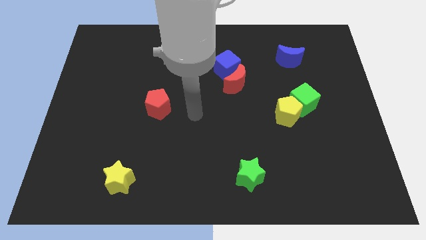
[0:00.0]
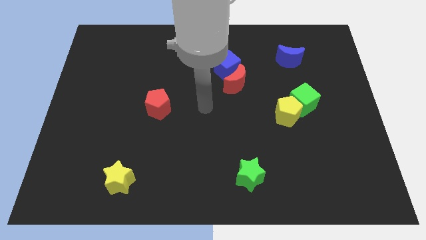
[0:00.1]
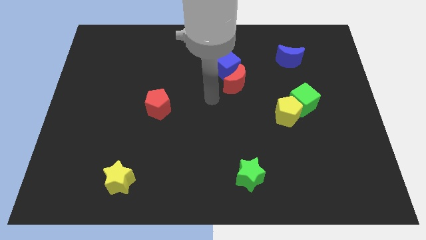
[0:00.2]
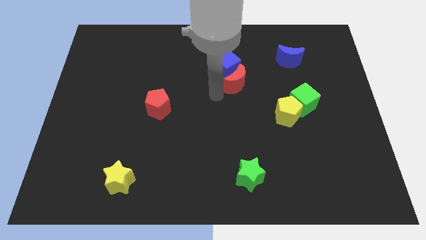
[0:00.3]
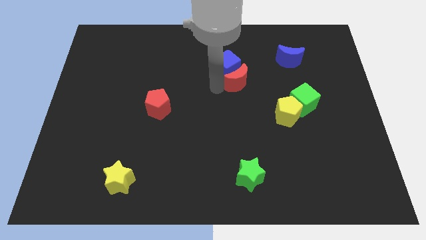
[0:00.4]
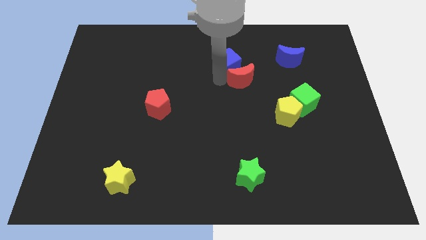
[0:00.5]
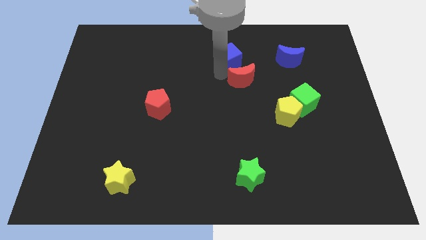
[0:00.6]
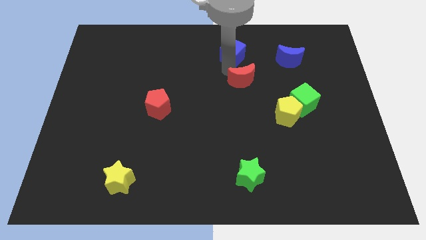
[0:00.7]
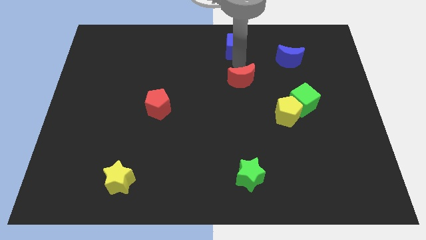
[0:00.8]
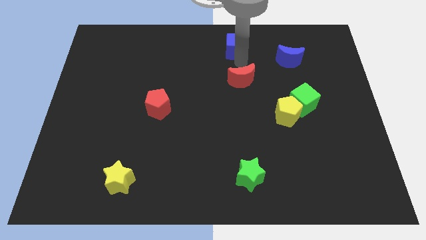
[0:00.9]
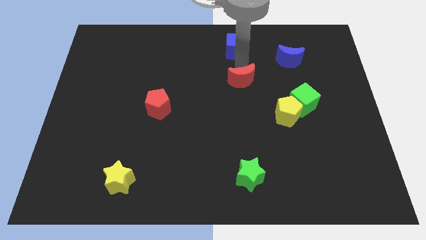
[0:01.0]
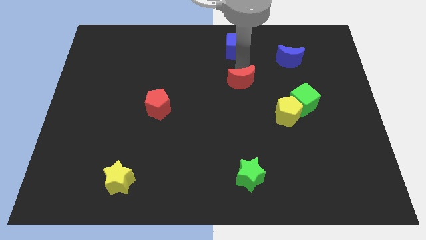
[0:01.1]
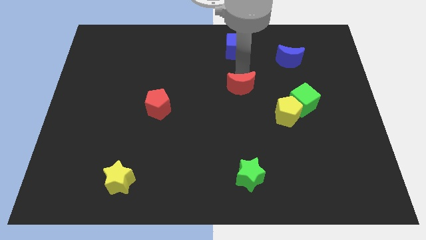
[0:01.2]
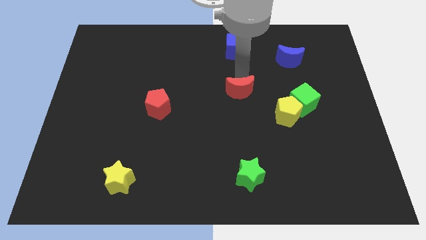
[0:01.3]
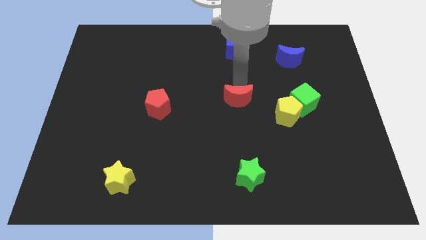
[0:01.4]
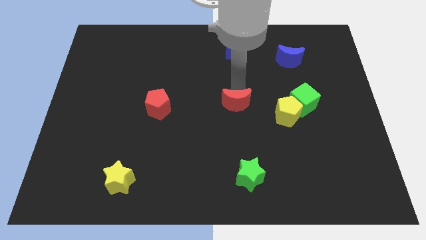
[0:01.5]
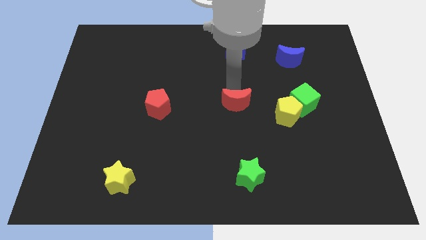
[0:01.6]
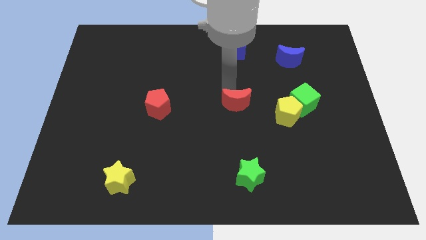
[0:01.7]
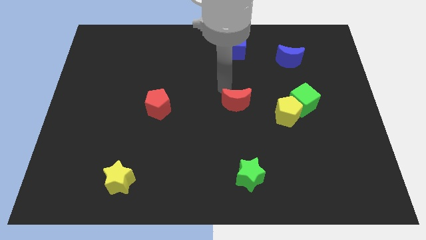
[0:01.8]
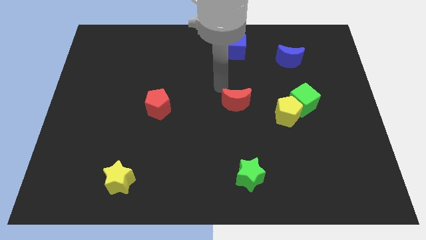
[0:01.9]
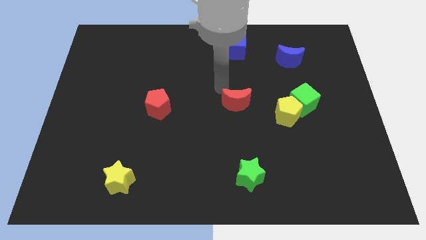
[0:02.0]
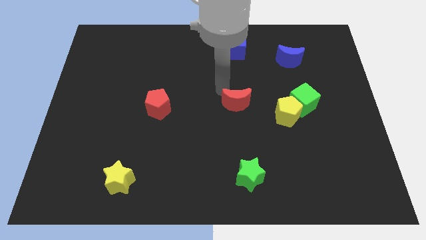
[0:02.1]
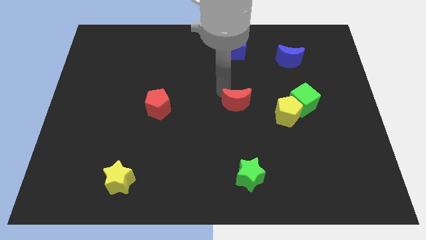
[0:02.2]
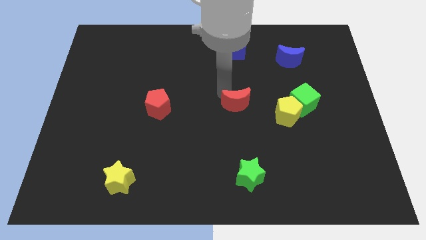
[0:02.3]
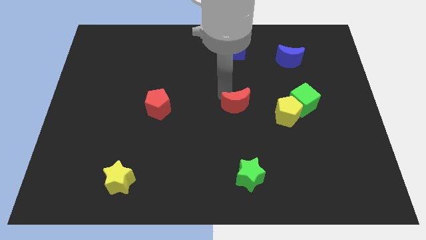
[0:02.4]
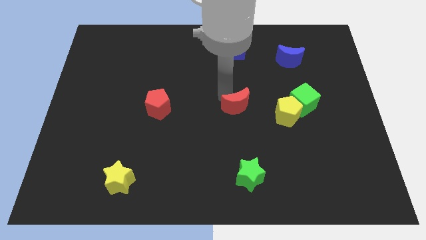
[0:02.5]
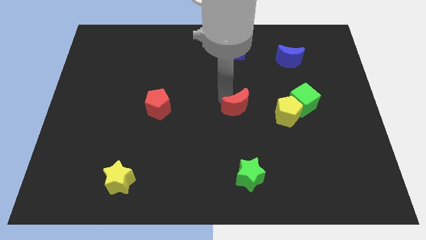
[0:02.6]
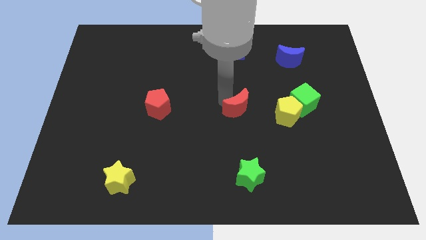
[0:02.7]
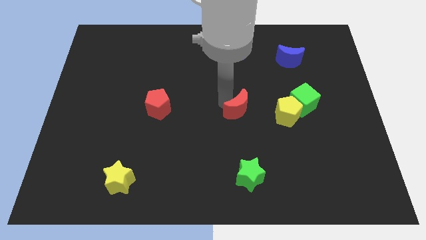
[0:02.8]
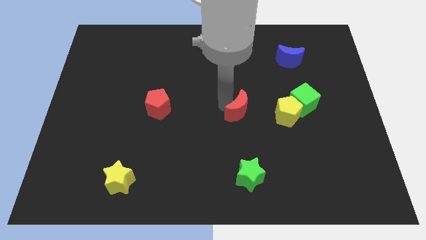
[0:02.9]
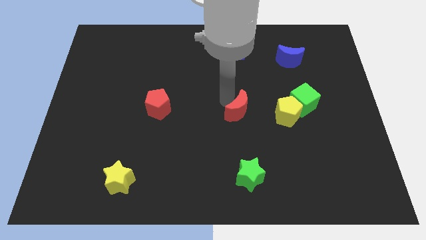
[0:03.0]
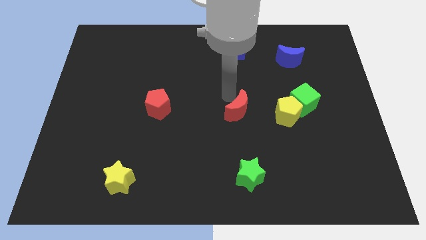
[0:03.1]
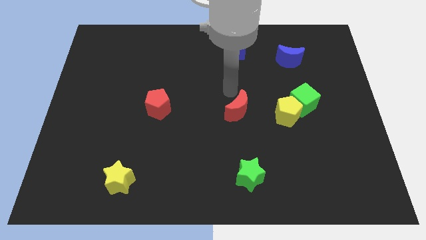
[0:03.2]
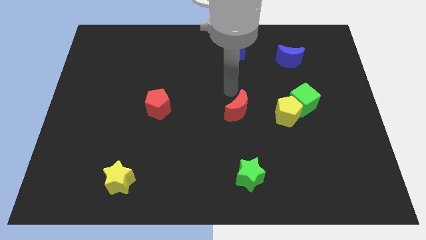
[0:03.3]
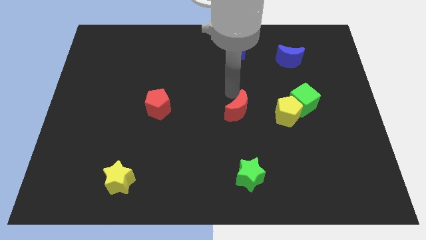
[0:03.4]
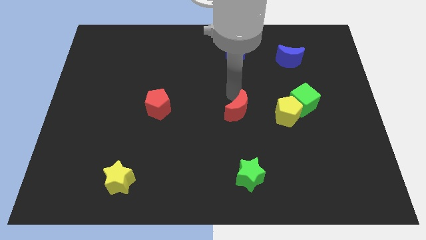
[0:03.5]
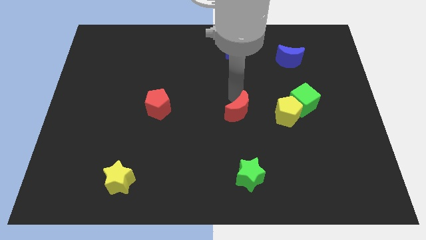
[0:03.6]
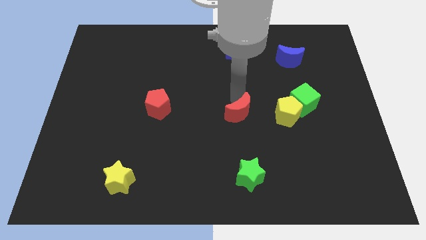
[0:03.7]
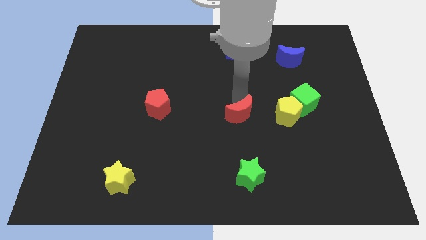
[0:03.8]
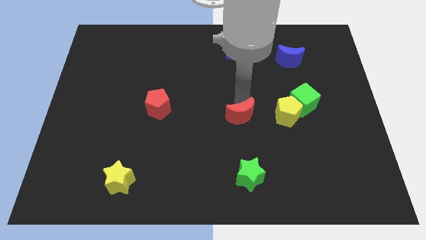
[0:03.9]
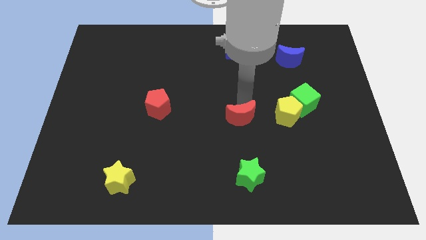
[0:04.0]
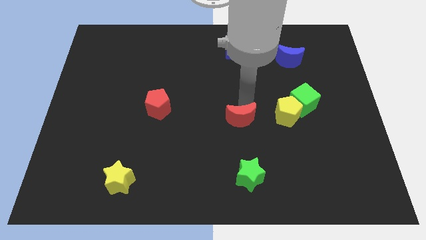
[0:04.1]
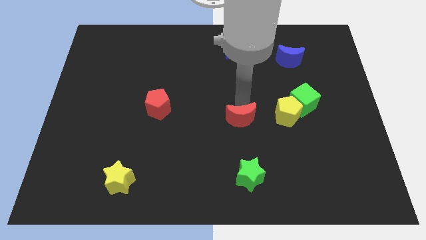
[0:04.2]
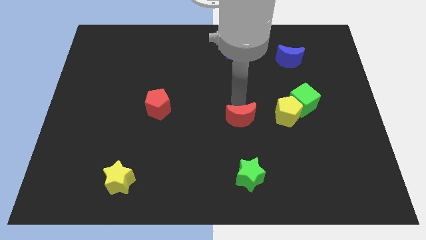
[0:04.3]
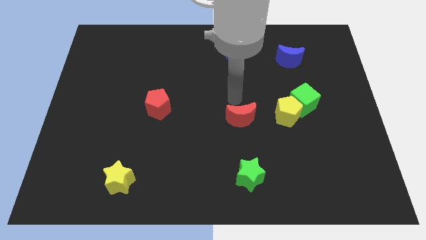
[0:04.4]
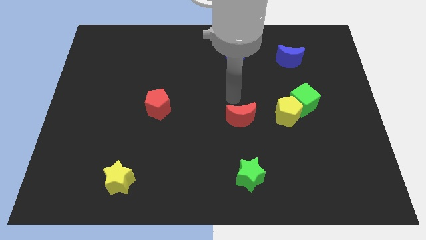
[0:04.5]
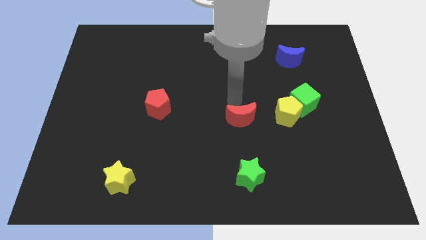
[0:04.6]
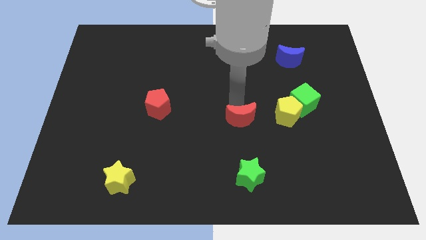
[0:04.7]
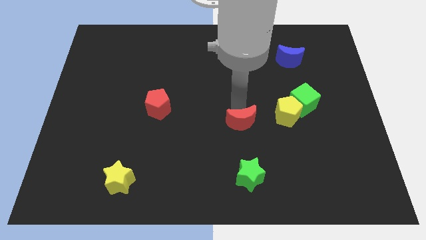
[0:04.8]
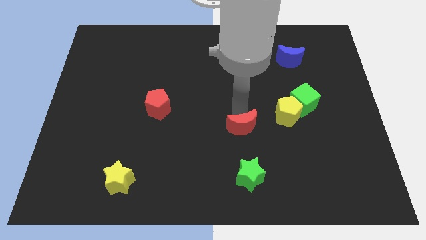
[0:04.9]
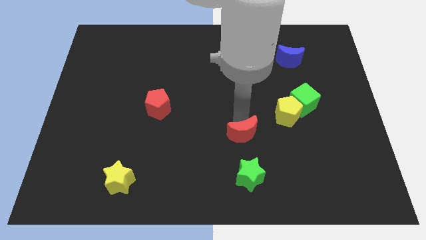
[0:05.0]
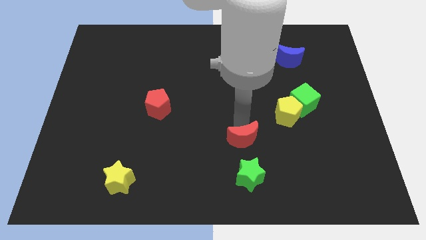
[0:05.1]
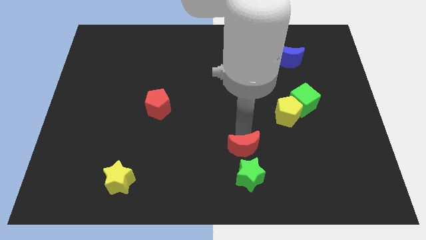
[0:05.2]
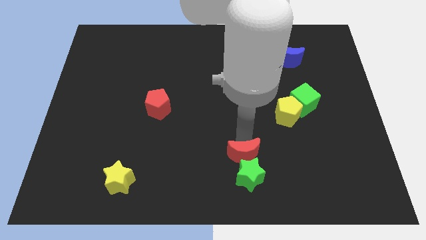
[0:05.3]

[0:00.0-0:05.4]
put the red moon to the green star

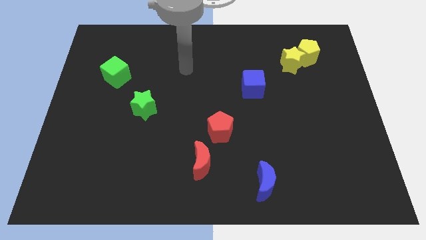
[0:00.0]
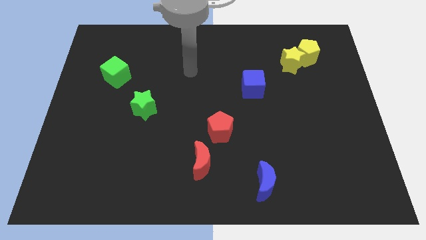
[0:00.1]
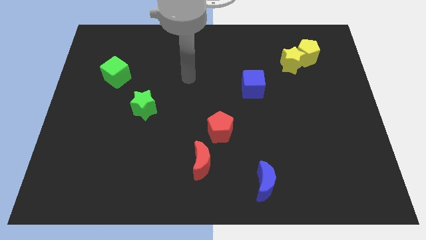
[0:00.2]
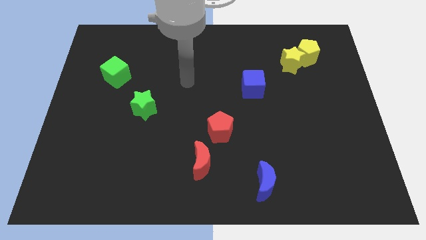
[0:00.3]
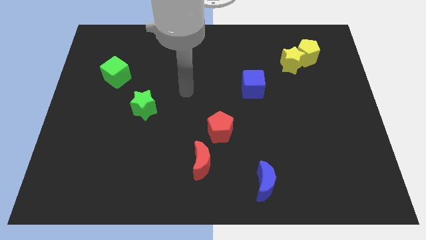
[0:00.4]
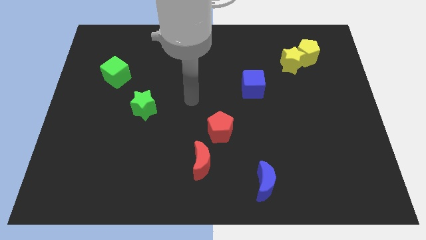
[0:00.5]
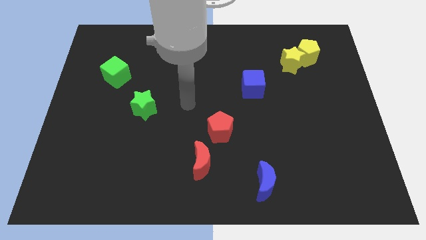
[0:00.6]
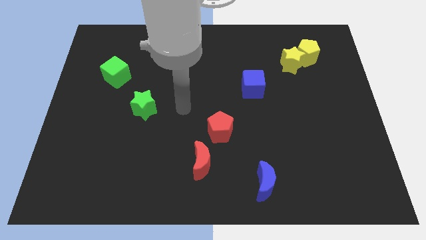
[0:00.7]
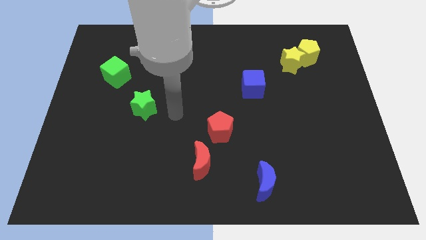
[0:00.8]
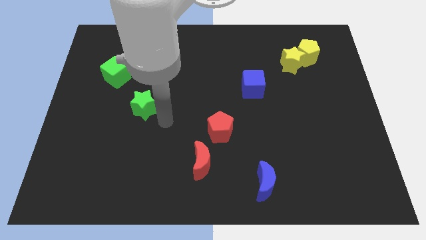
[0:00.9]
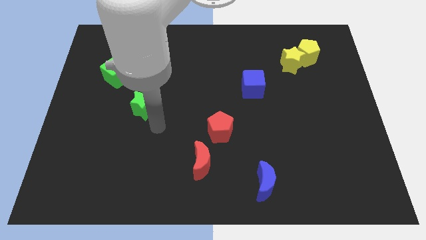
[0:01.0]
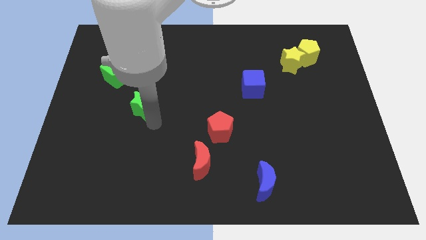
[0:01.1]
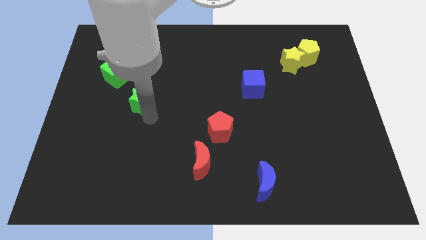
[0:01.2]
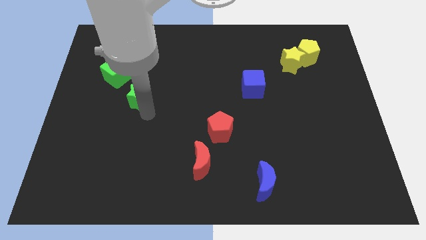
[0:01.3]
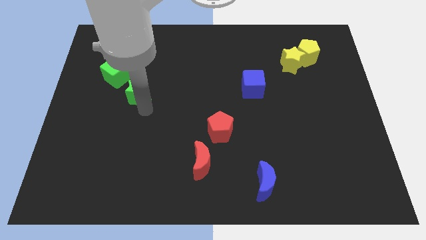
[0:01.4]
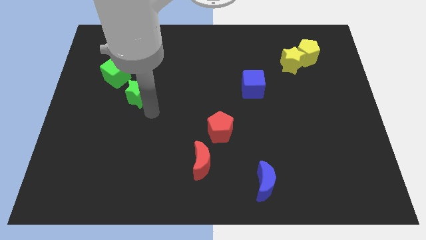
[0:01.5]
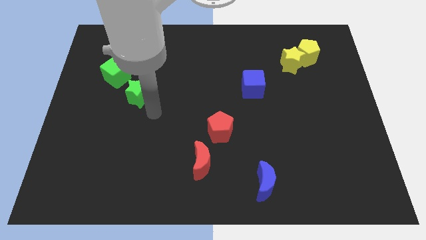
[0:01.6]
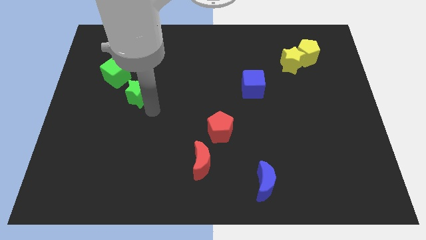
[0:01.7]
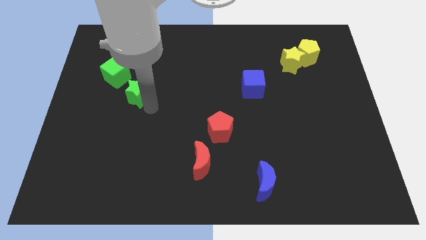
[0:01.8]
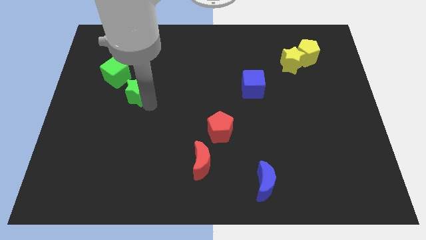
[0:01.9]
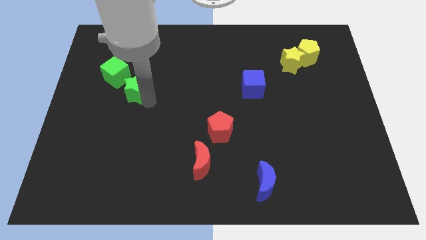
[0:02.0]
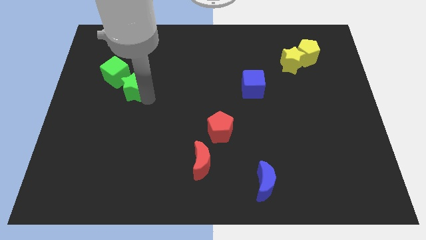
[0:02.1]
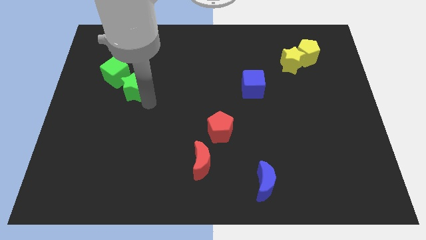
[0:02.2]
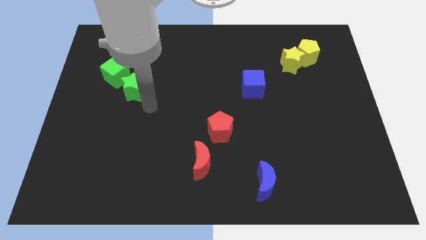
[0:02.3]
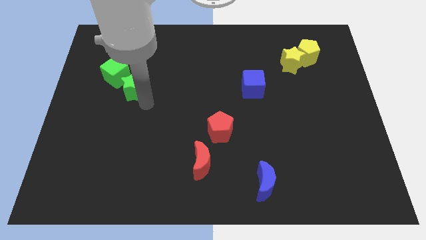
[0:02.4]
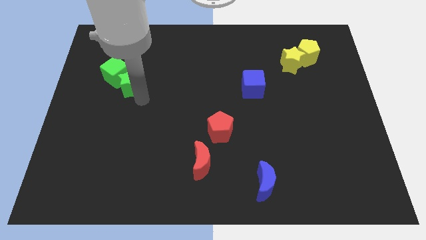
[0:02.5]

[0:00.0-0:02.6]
move the green star next to the green cube
